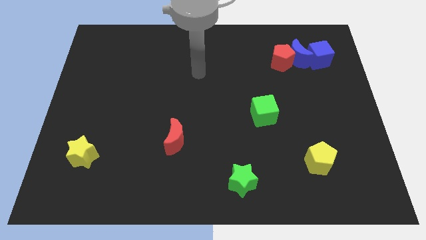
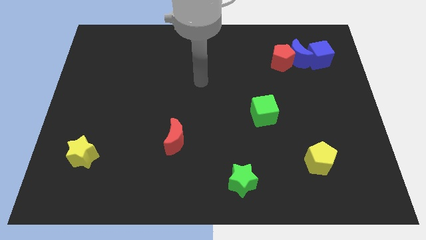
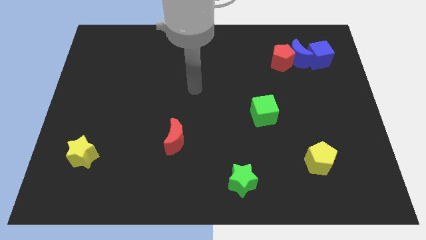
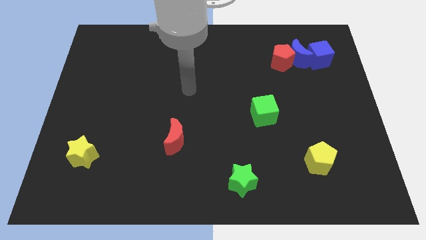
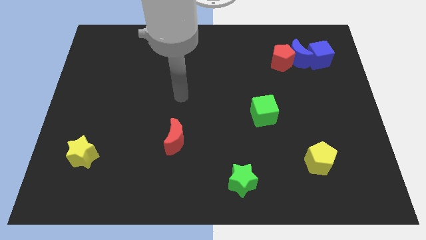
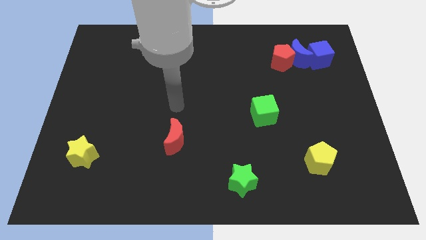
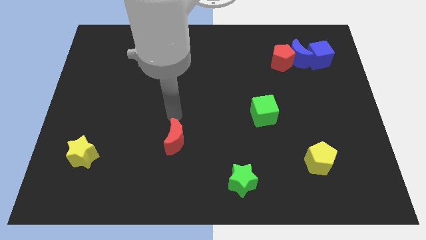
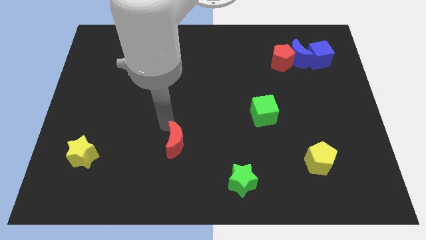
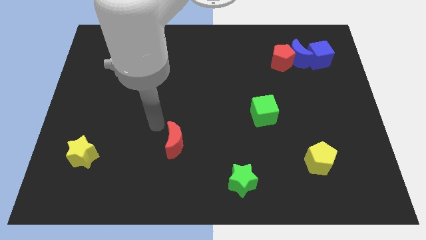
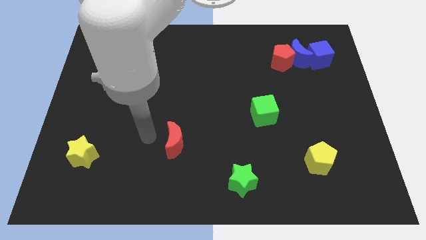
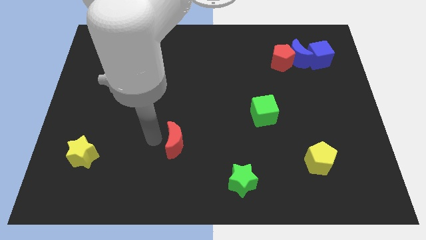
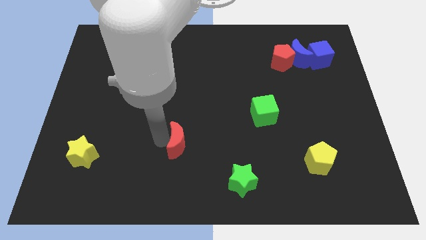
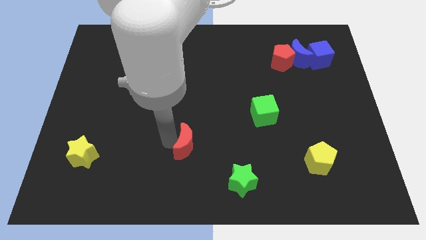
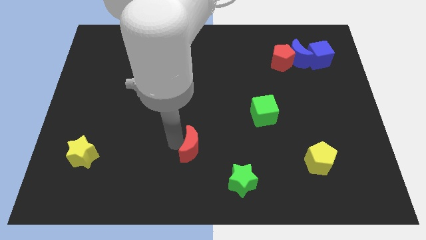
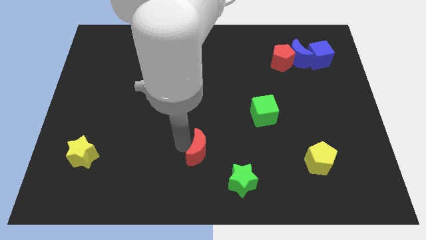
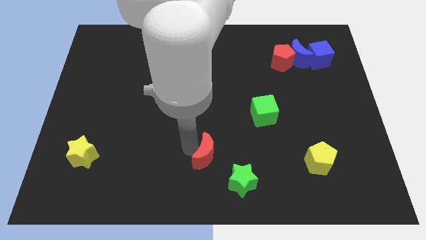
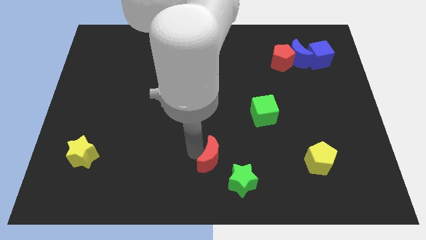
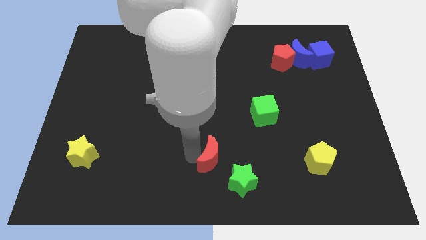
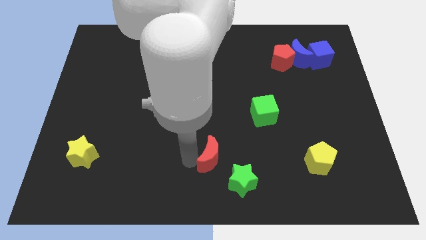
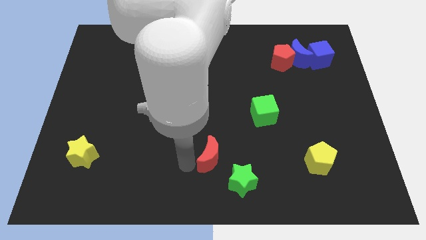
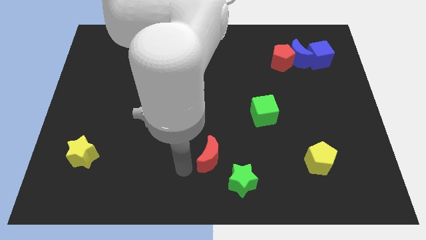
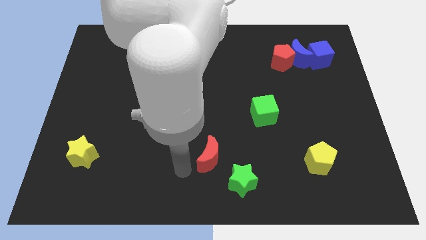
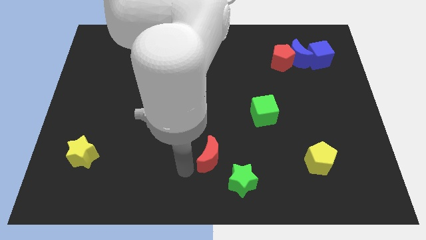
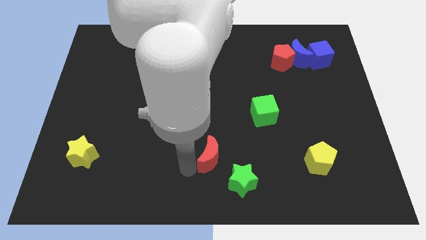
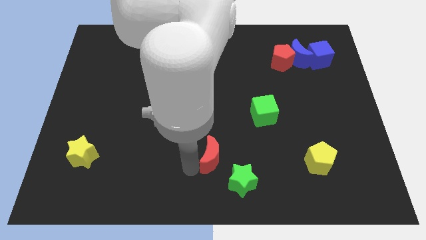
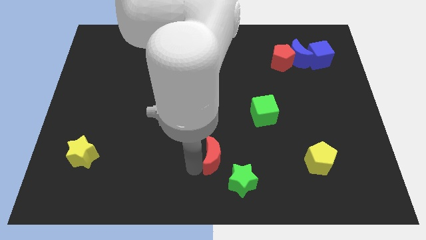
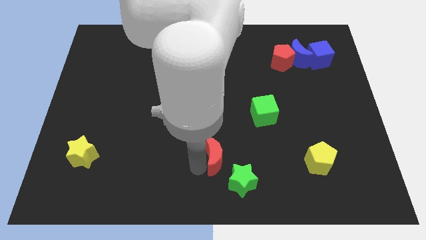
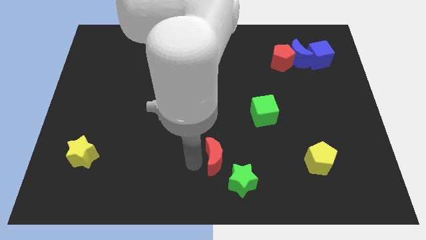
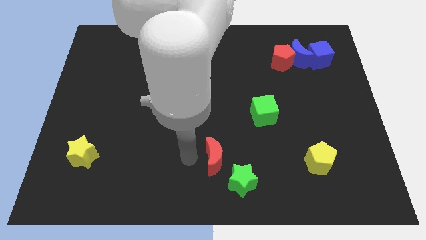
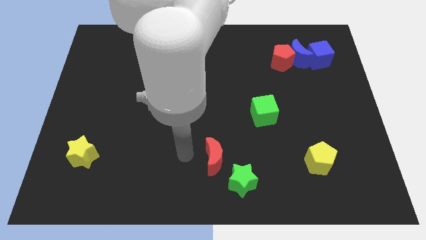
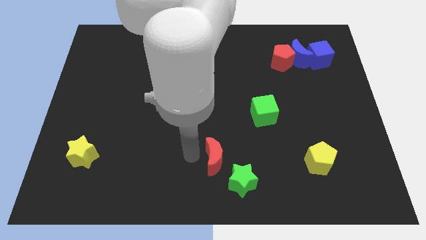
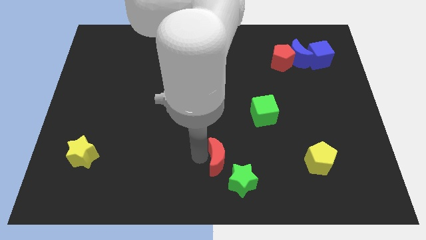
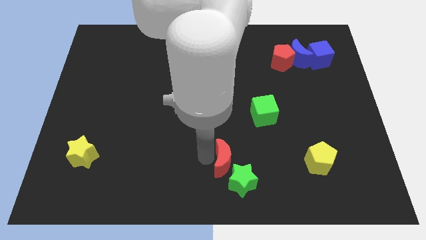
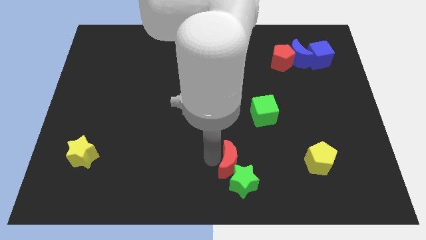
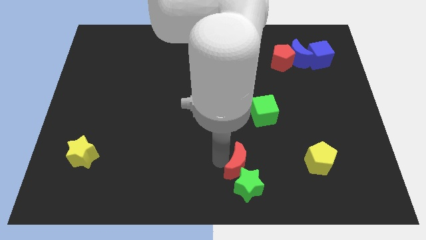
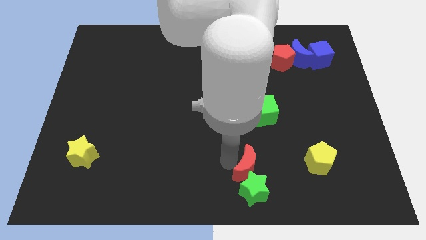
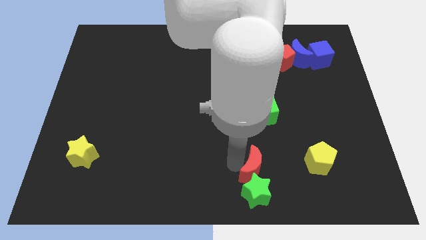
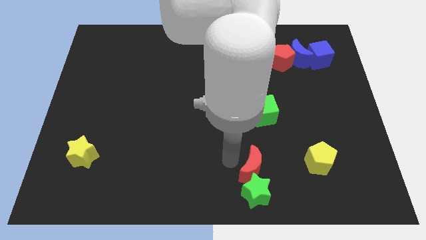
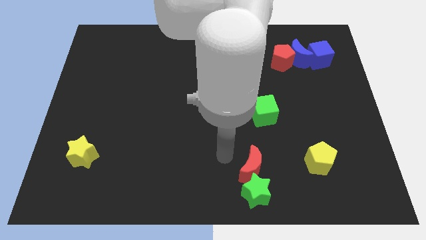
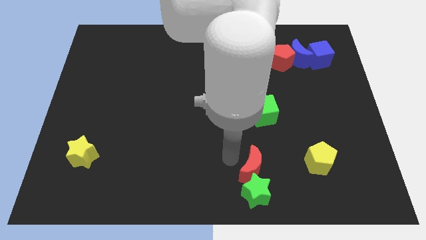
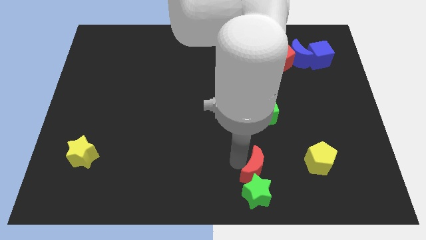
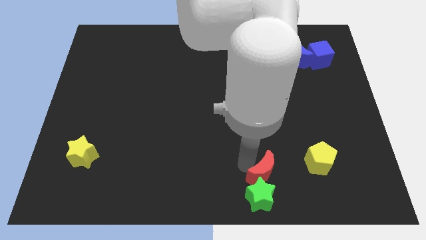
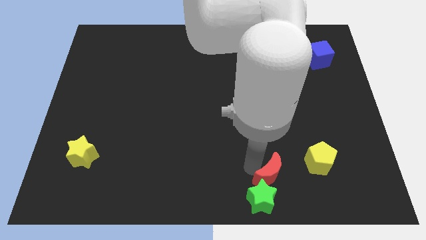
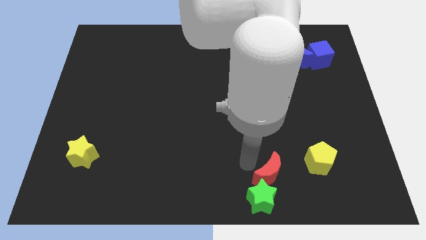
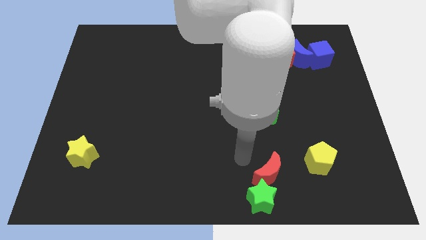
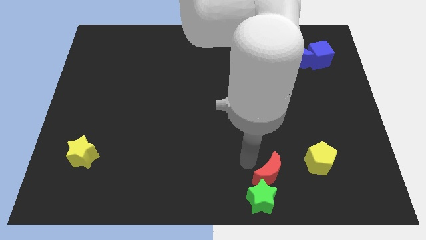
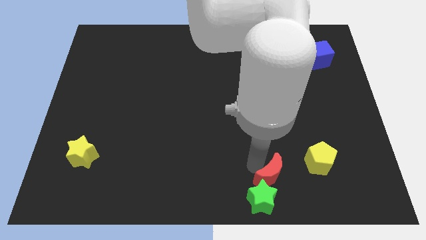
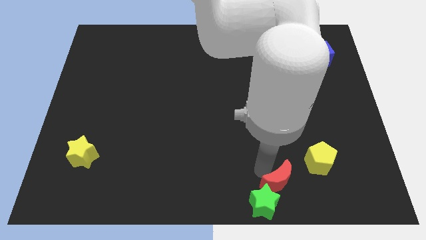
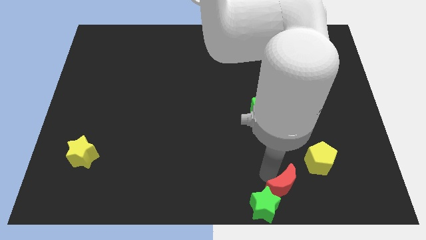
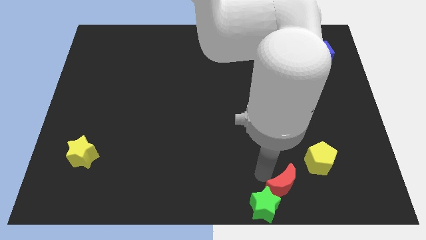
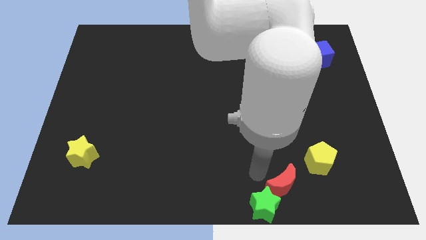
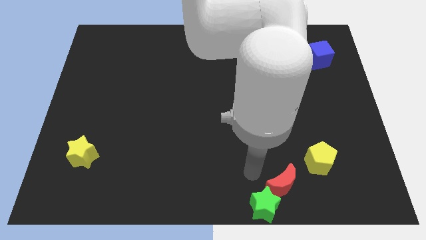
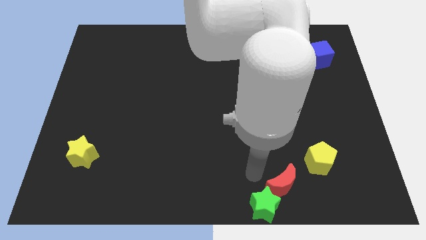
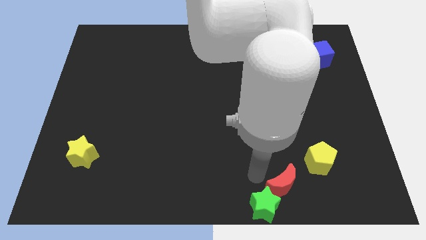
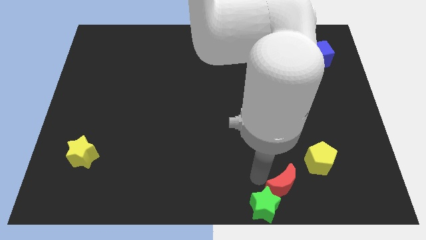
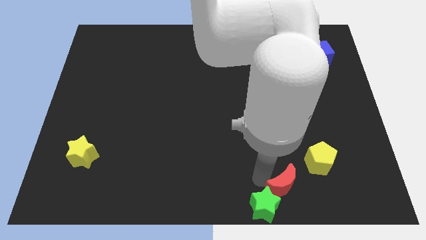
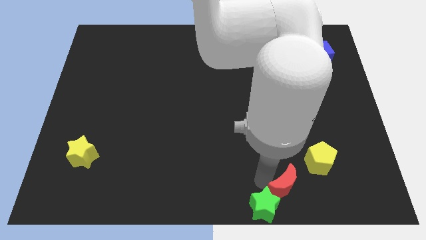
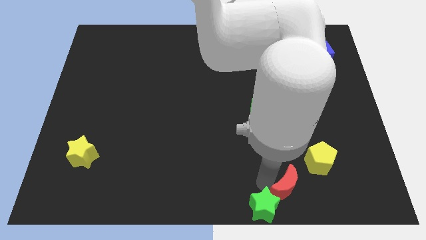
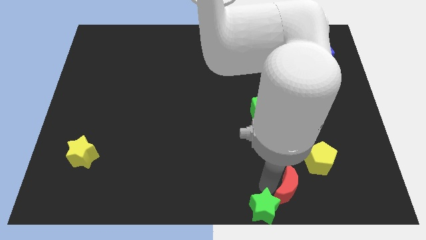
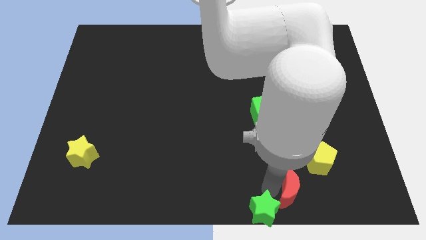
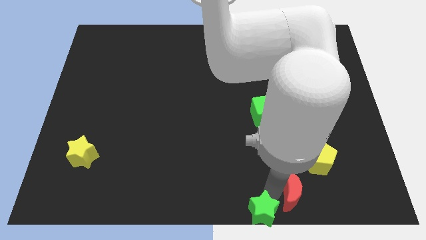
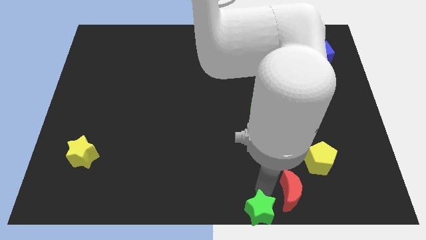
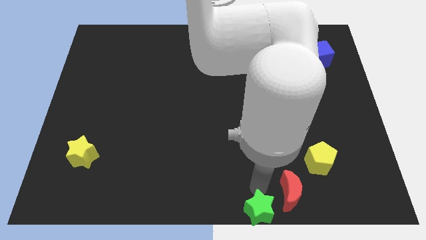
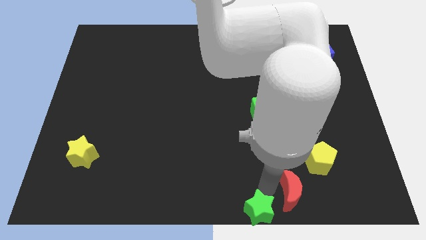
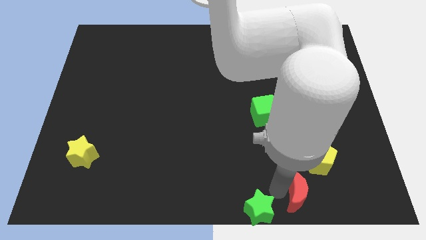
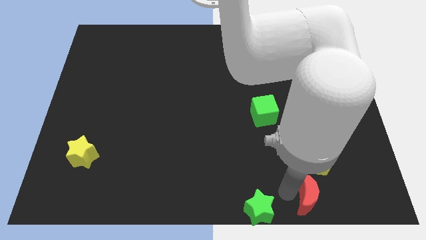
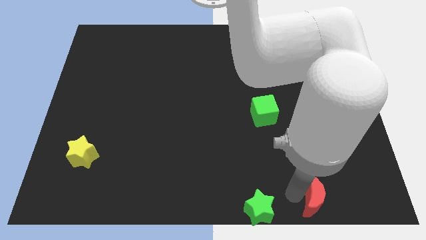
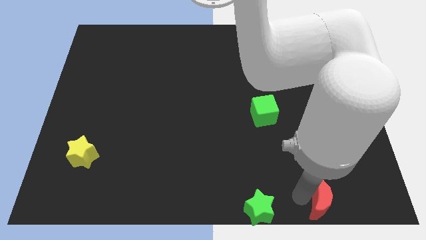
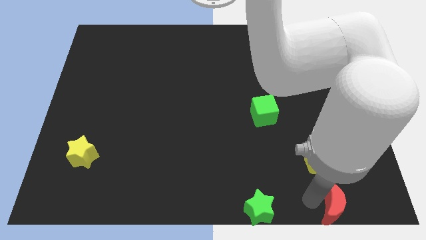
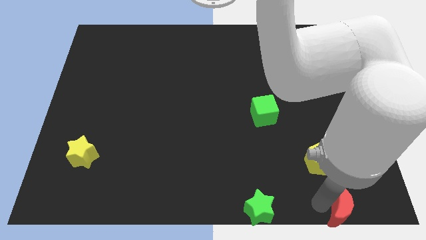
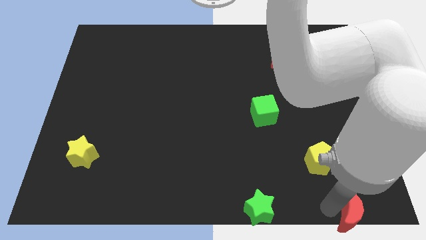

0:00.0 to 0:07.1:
put the red moon to the lower right corner
